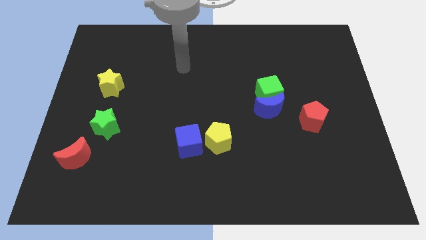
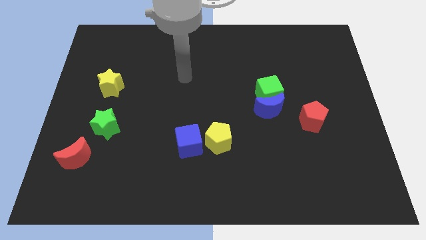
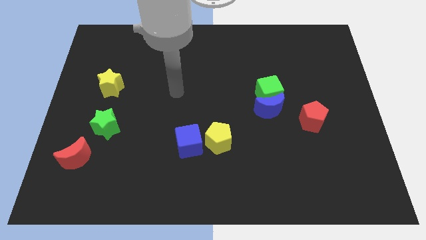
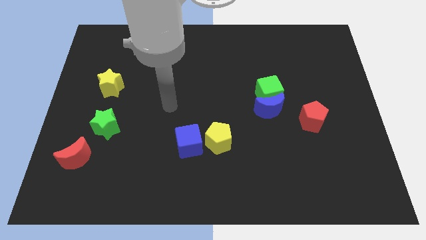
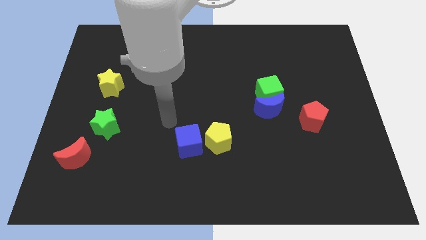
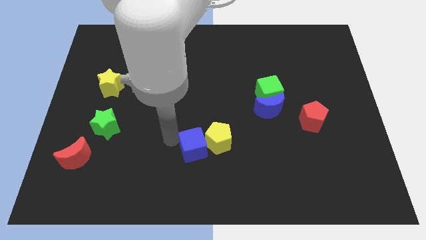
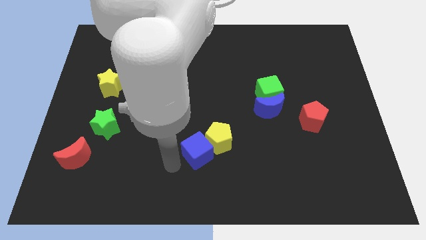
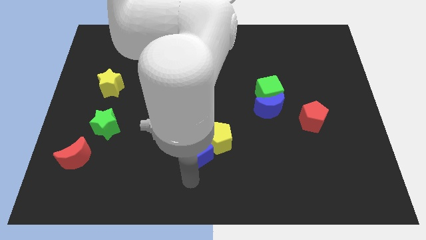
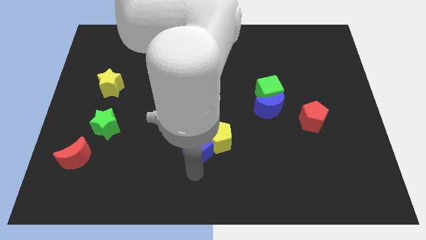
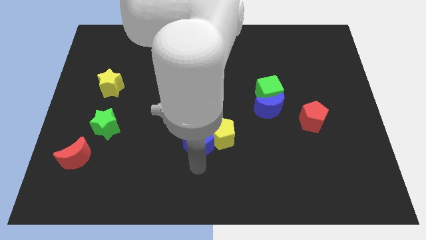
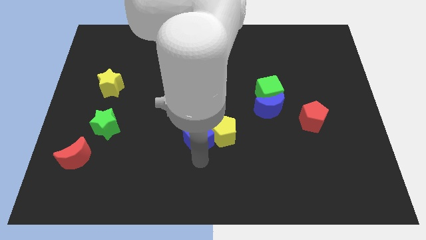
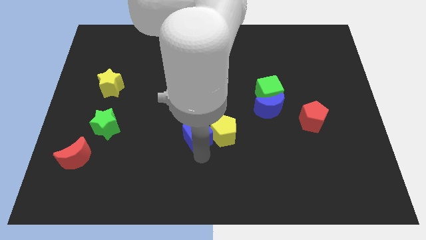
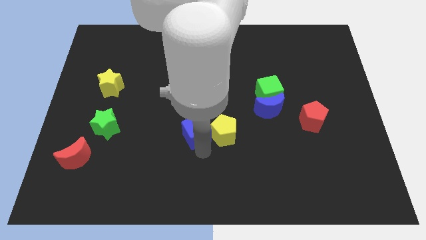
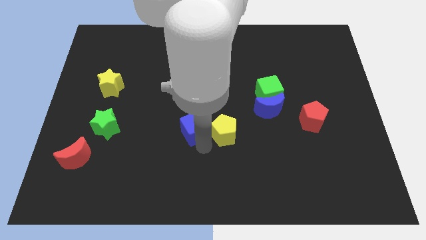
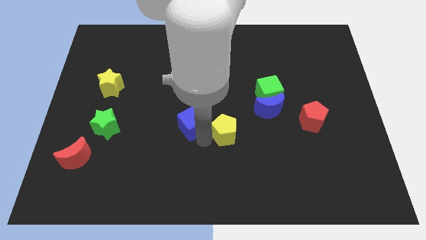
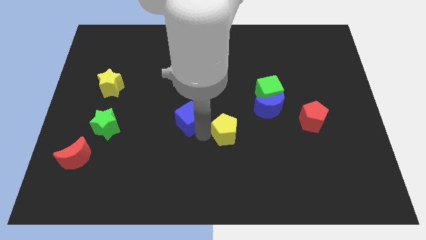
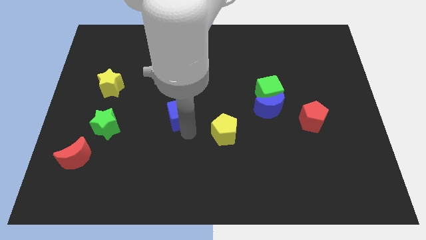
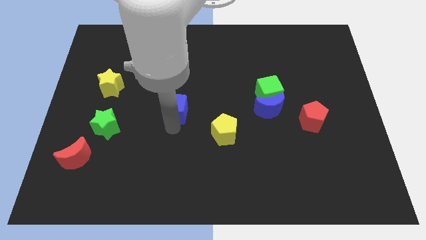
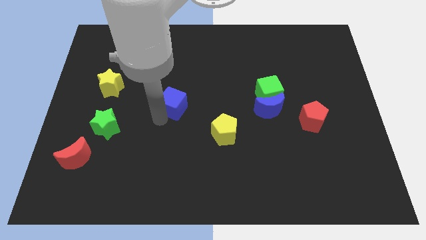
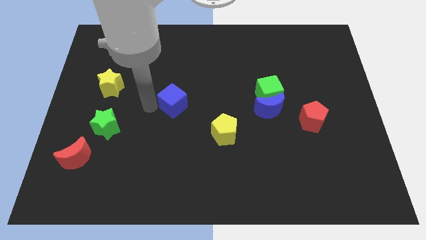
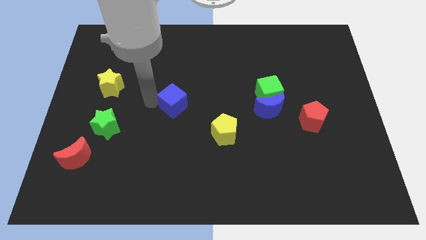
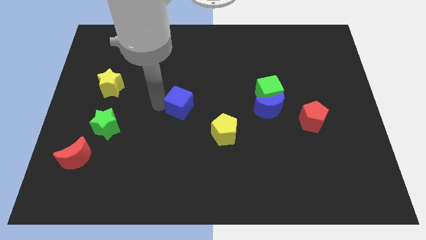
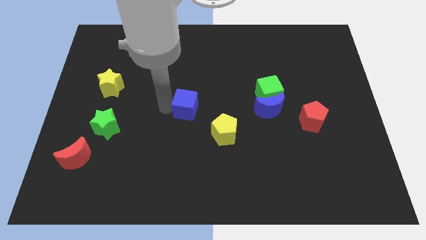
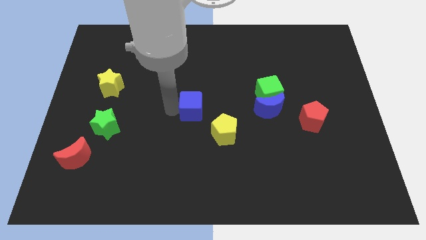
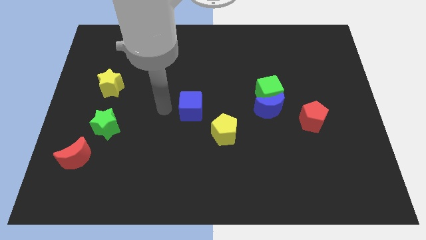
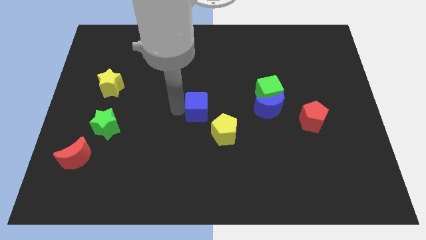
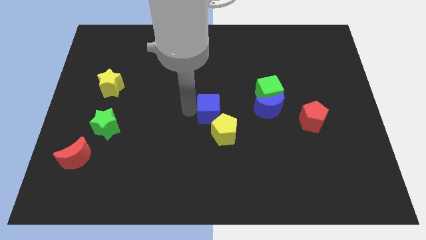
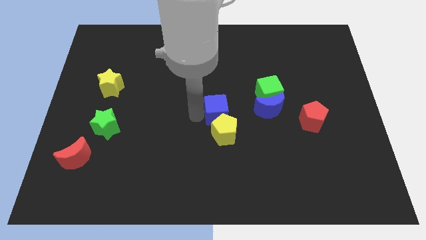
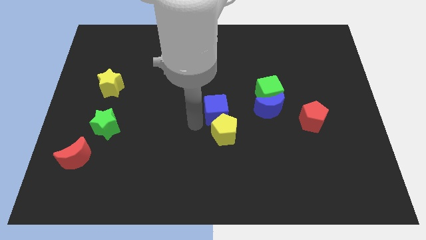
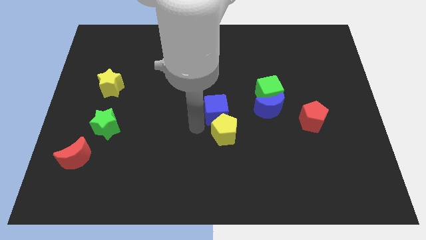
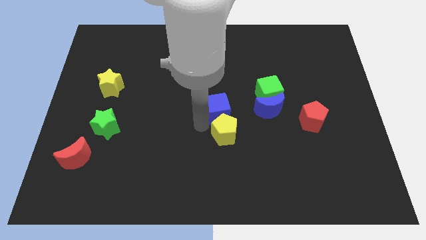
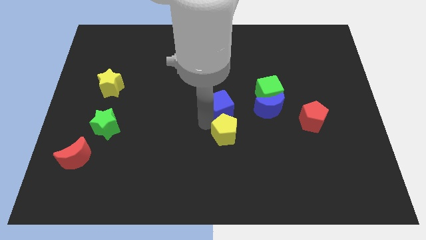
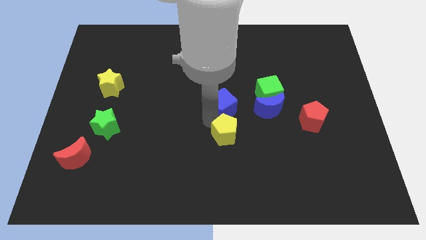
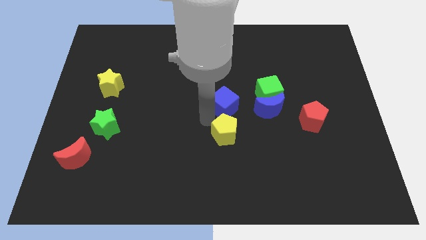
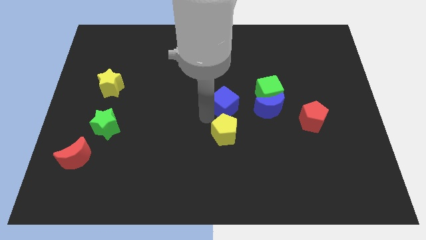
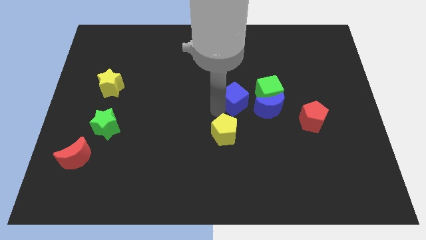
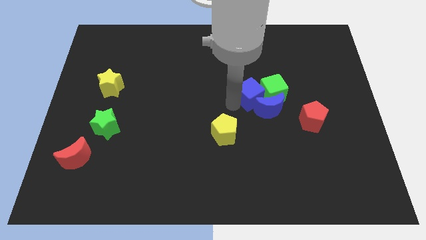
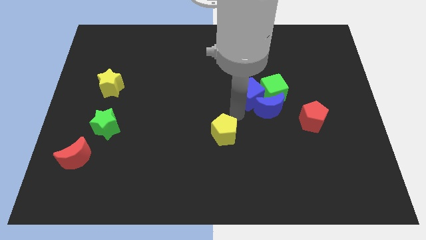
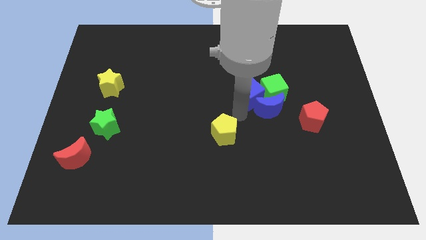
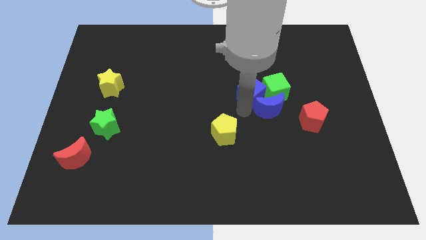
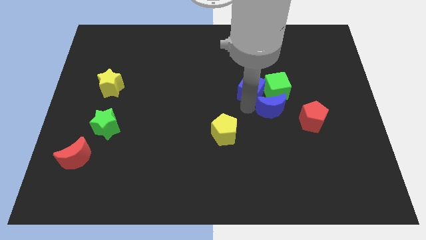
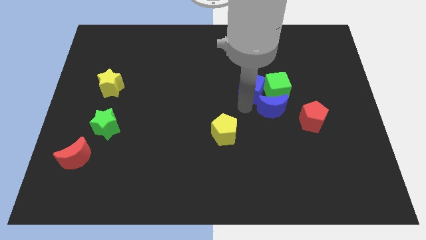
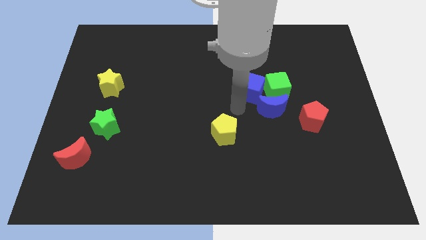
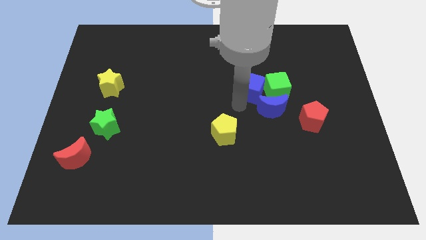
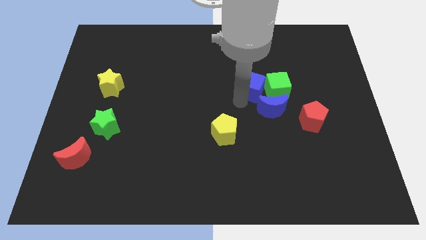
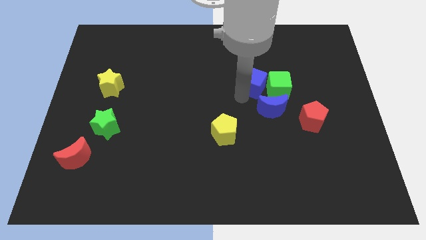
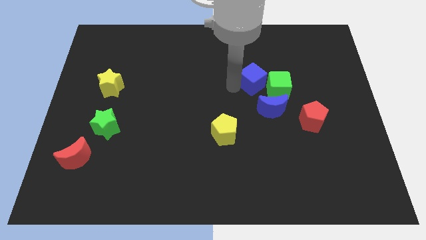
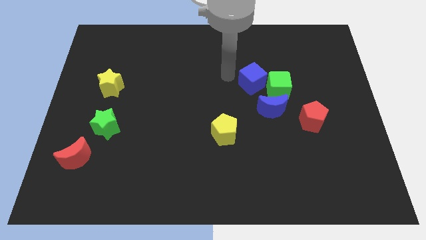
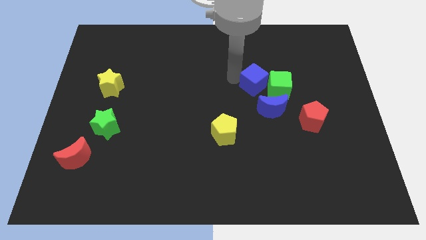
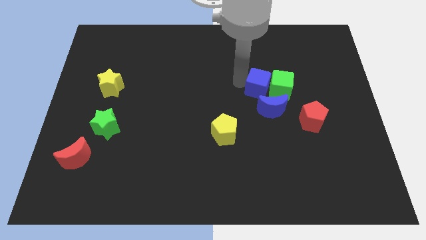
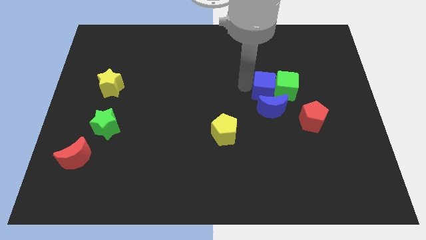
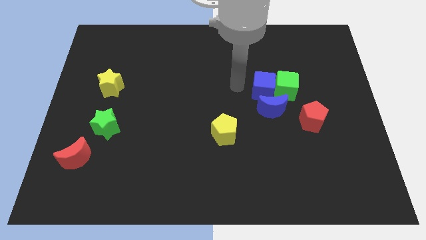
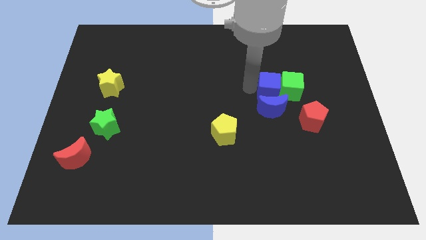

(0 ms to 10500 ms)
put the blue cube to the top right side of the blue moon

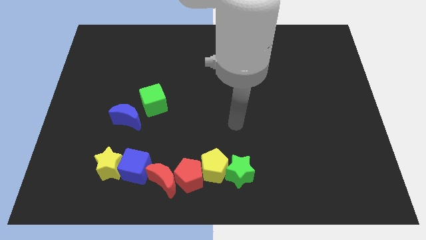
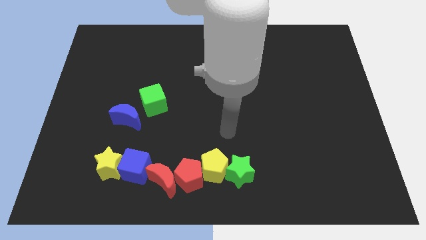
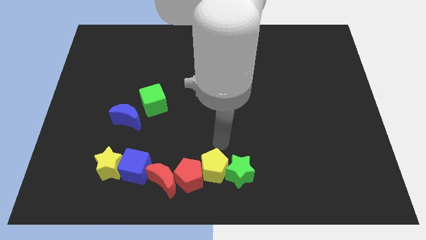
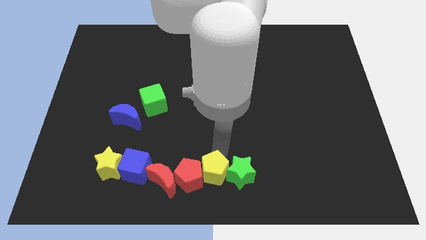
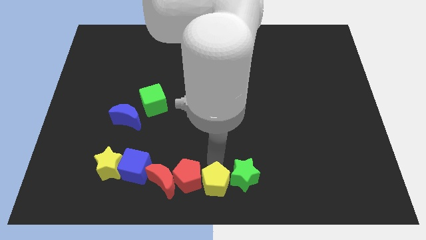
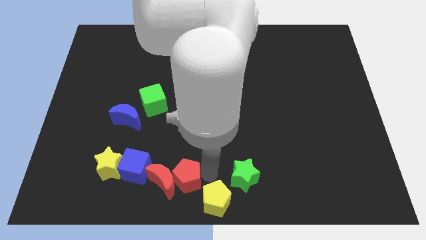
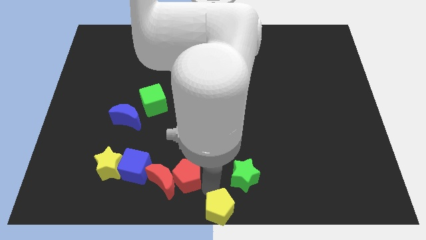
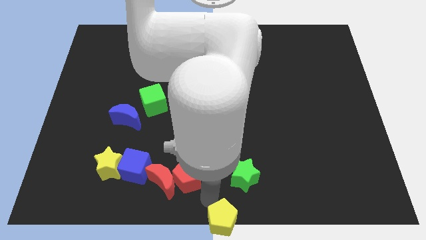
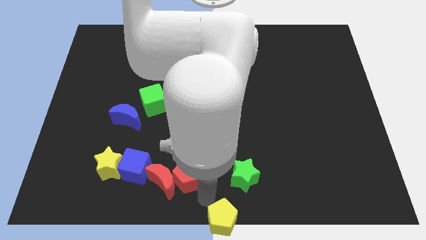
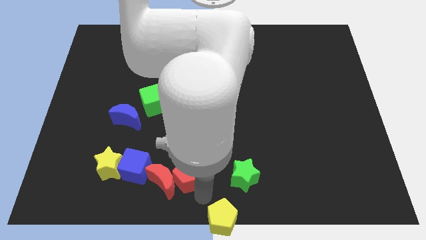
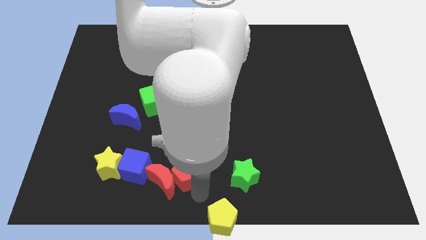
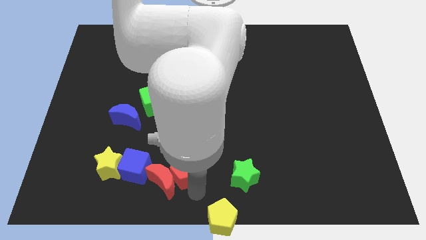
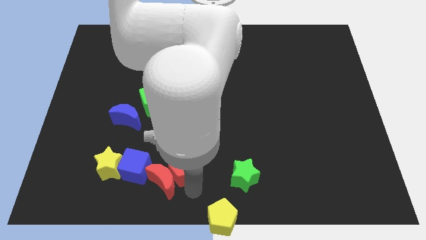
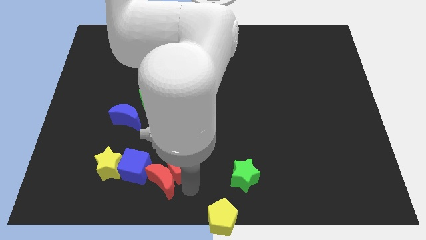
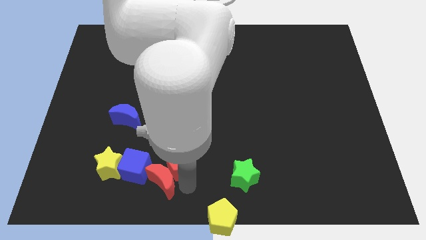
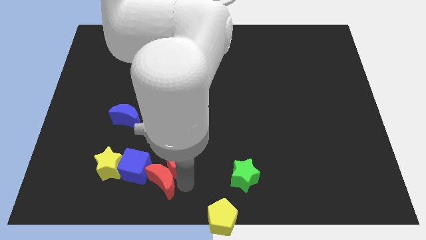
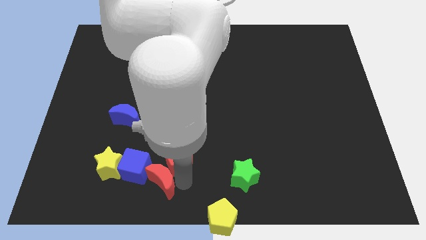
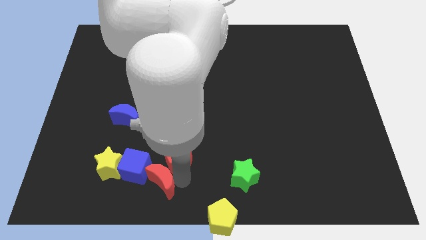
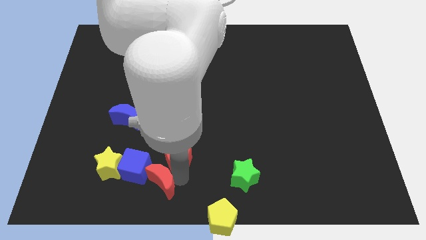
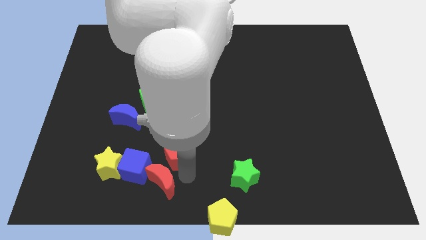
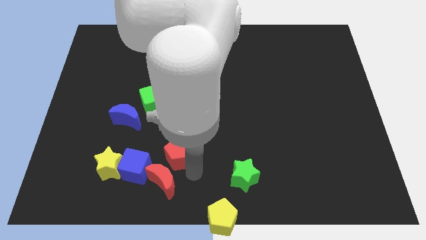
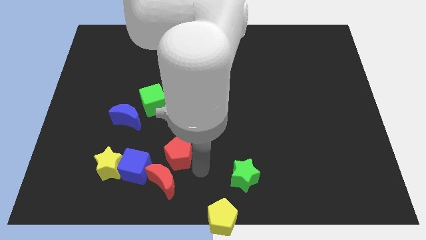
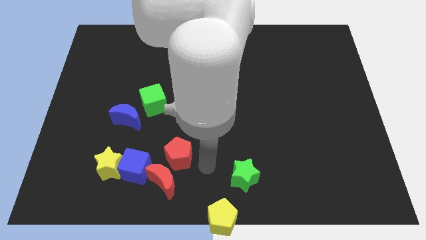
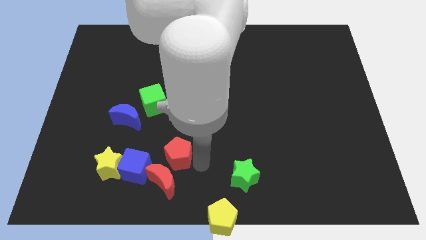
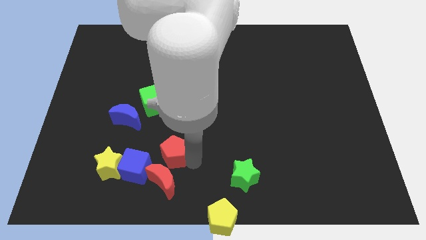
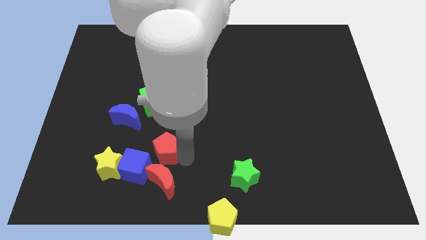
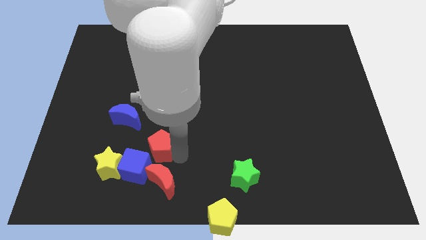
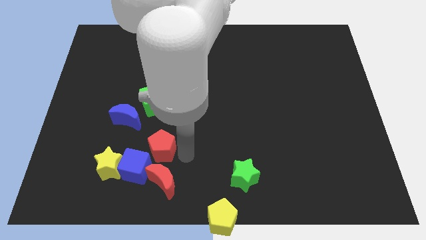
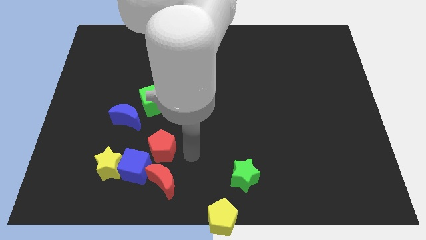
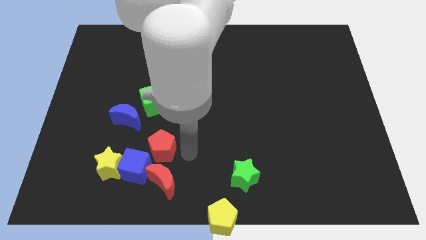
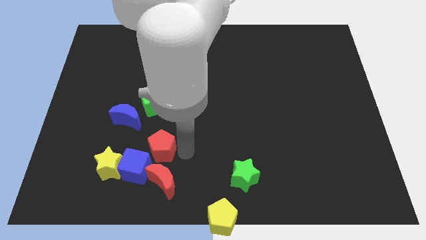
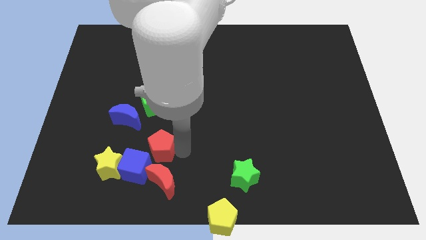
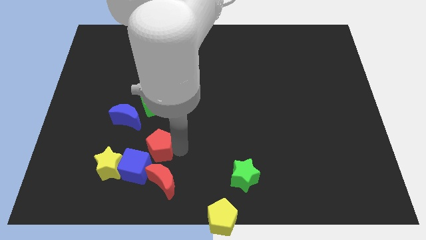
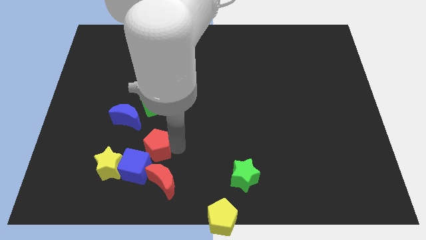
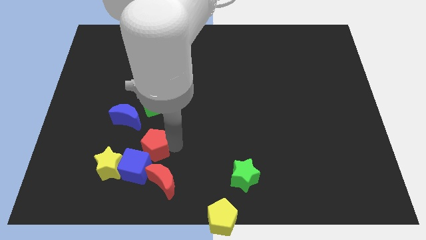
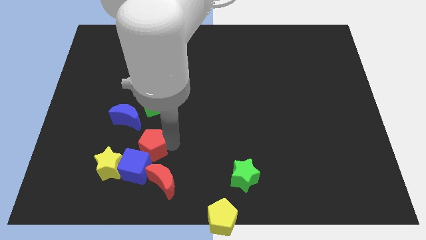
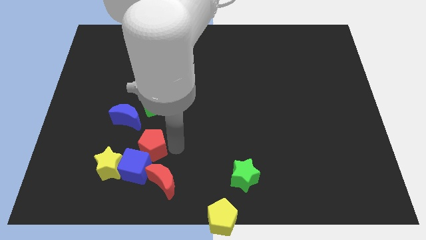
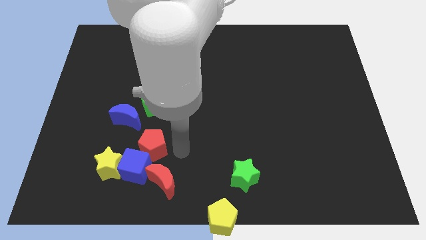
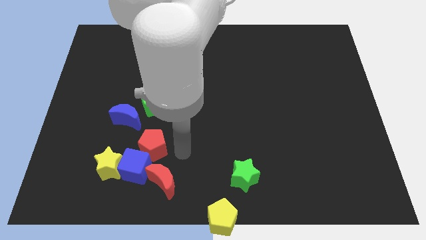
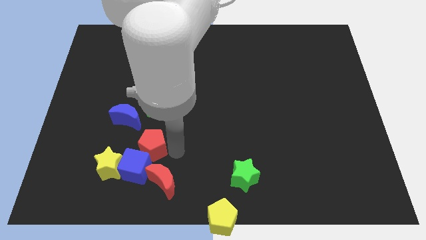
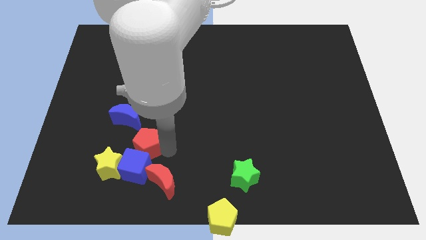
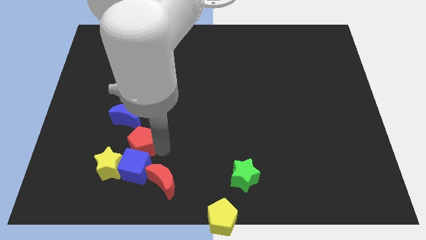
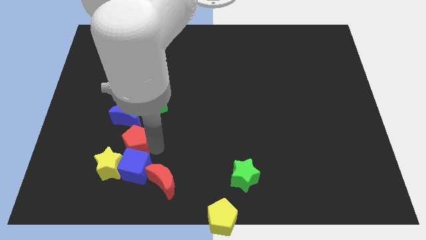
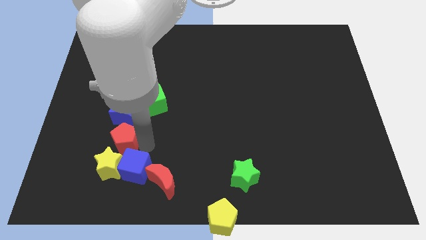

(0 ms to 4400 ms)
put the red pentagon diagonally down and to the left of the blue moon
